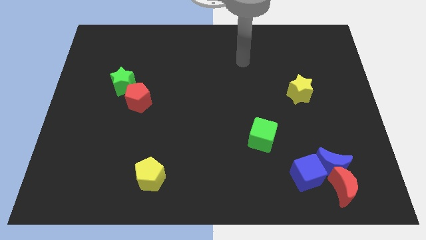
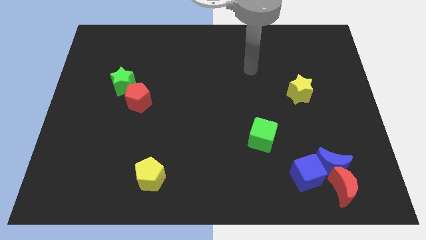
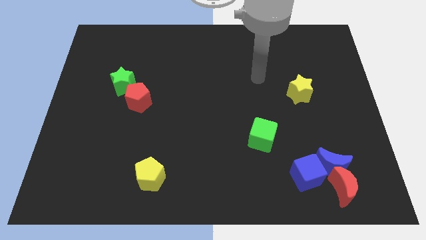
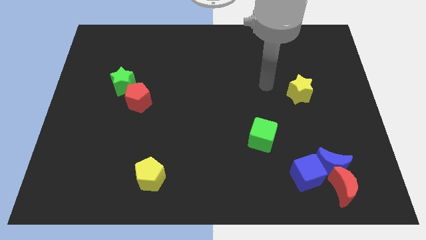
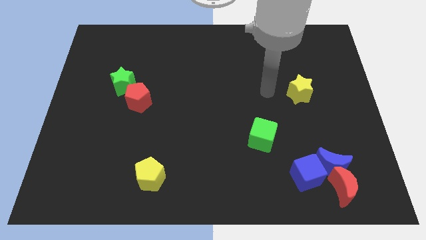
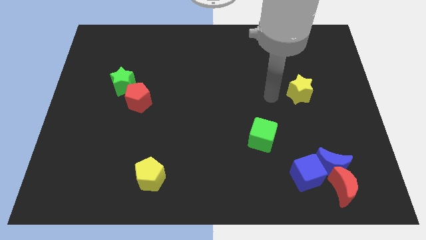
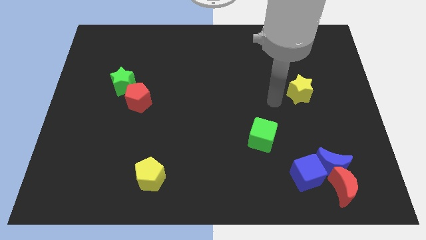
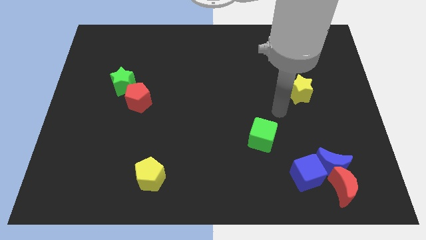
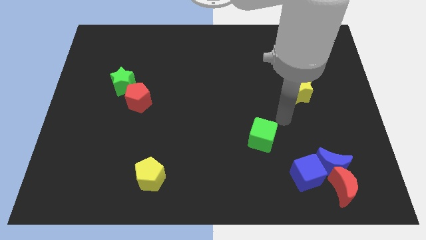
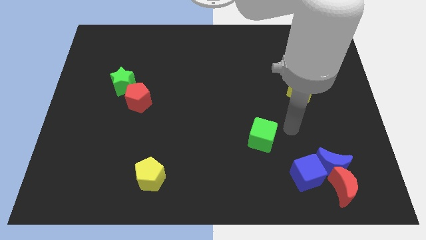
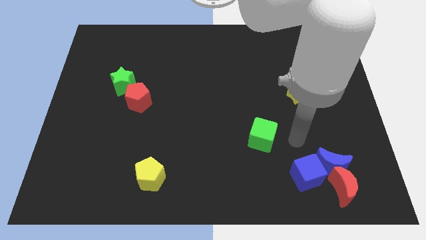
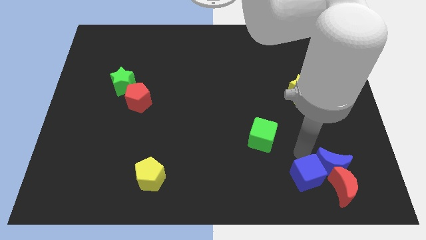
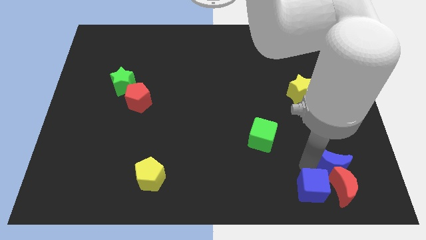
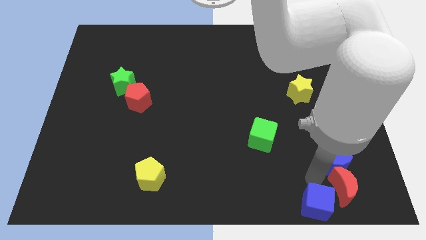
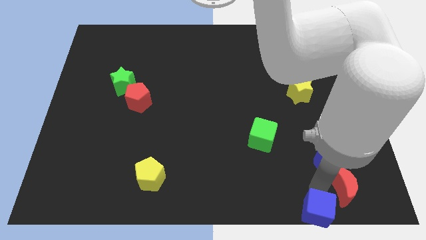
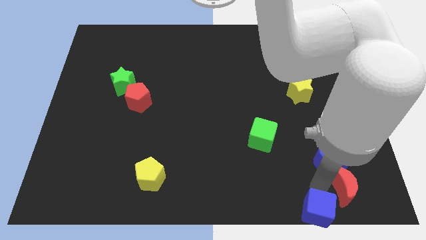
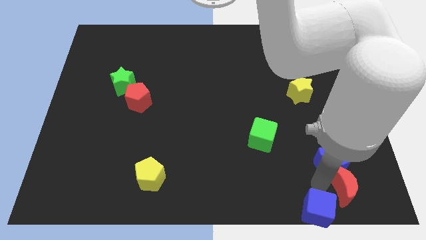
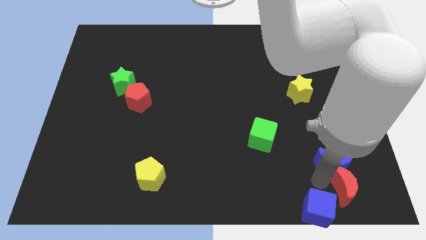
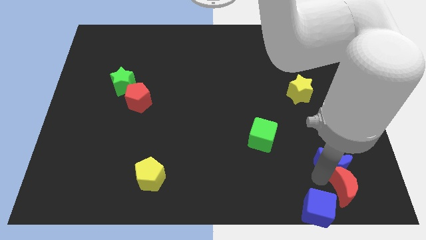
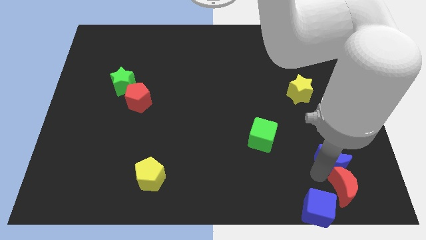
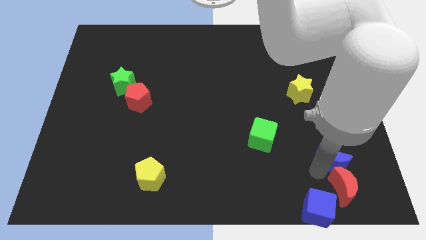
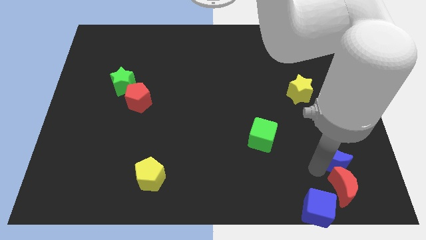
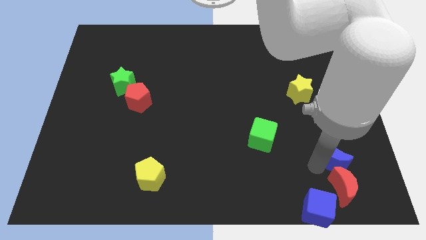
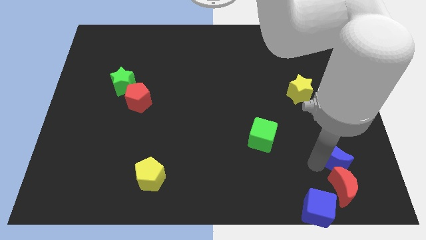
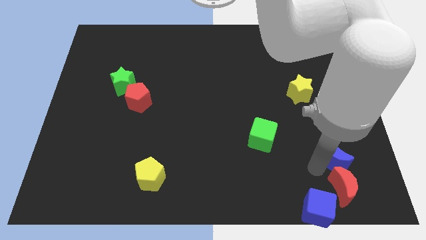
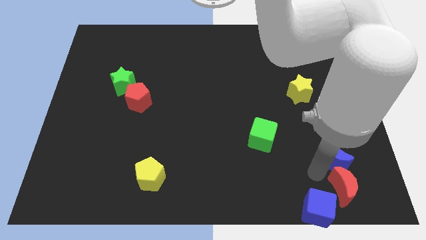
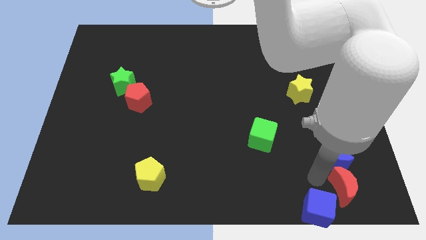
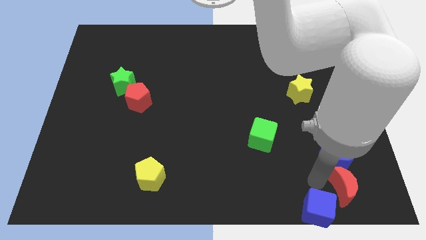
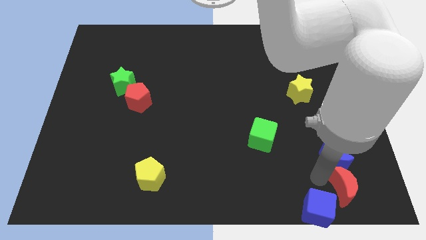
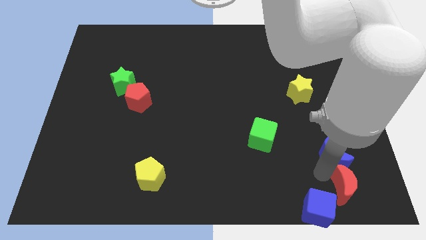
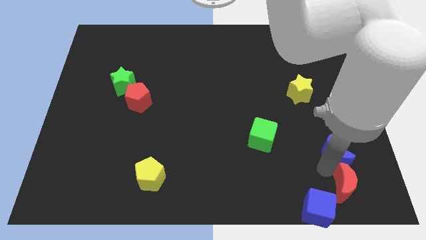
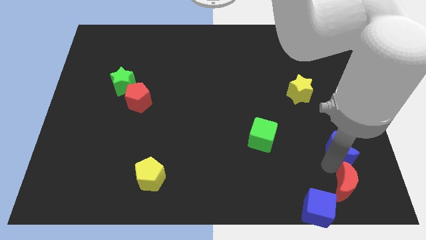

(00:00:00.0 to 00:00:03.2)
move the blue moon away from the red moon and blue cube

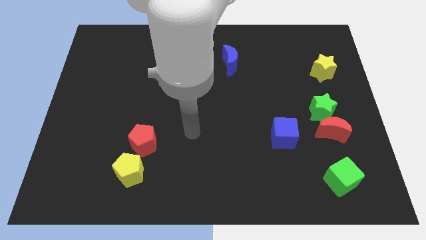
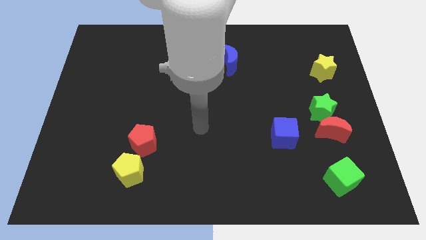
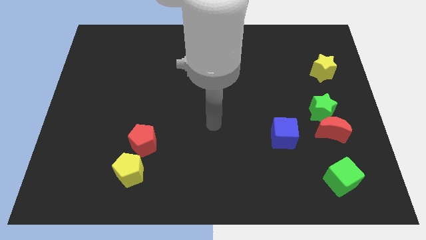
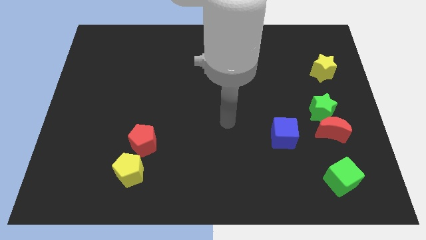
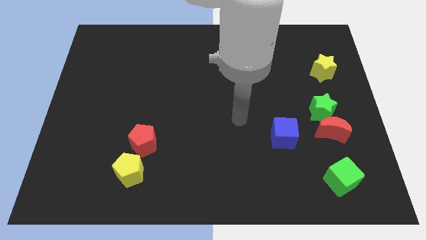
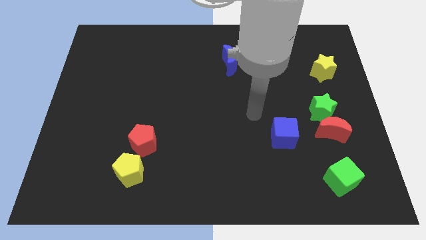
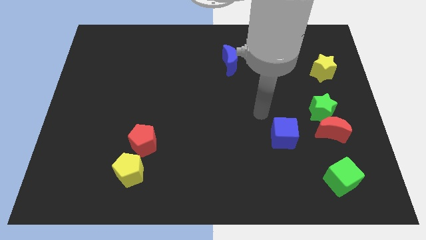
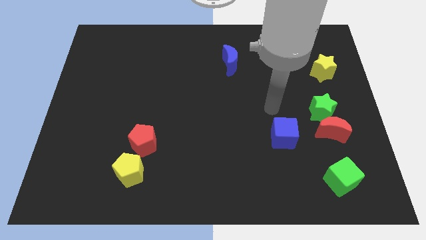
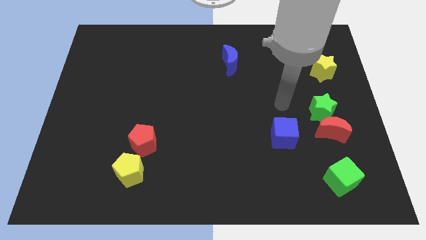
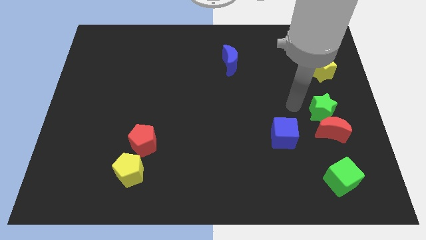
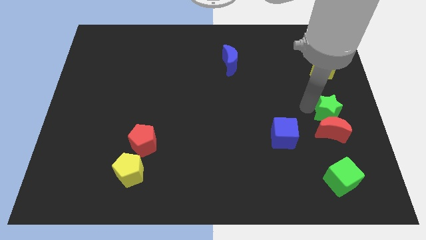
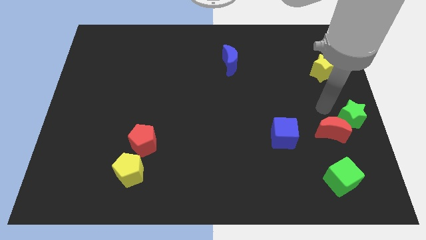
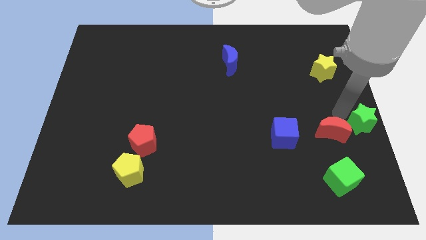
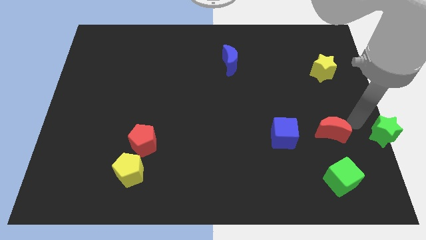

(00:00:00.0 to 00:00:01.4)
move the red moon away from the green star

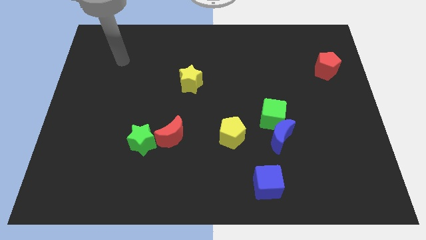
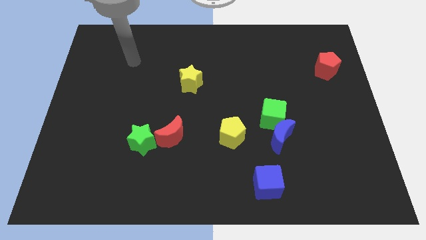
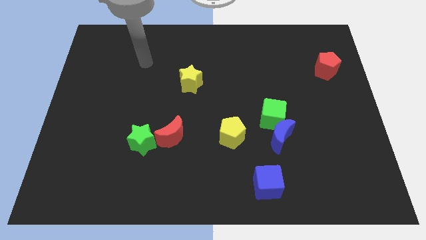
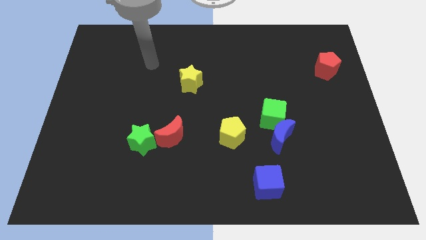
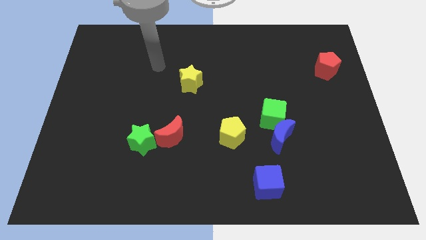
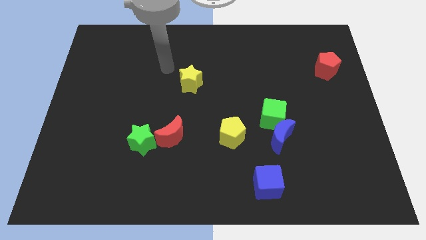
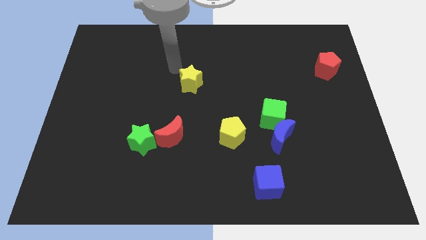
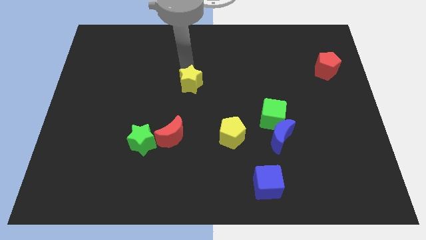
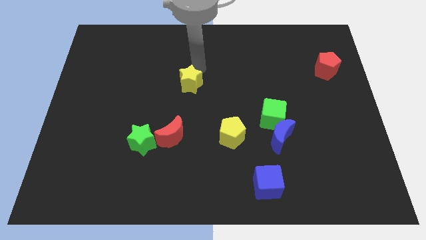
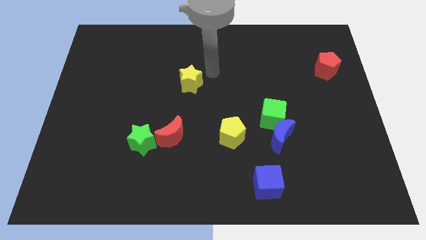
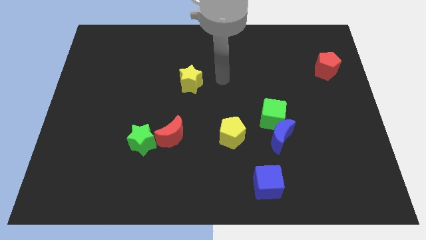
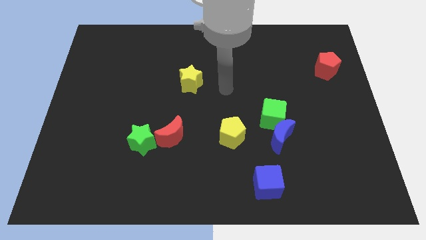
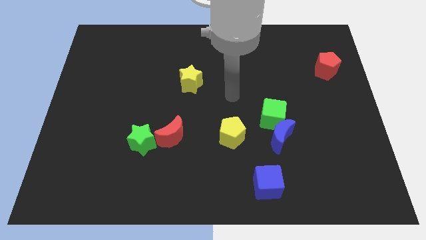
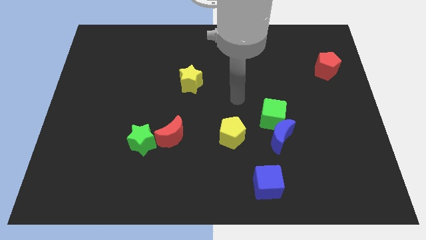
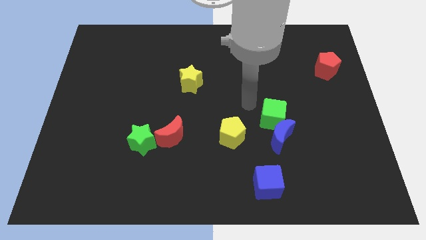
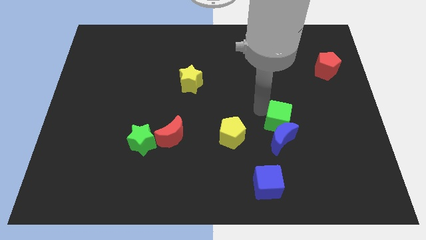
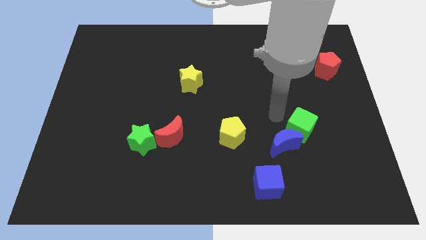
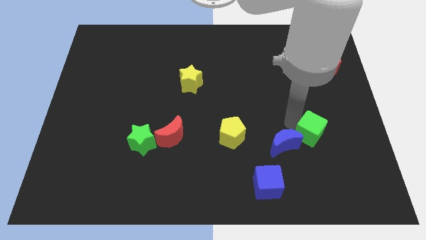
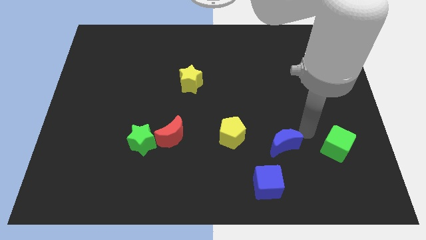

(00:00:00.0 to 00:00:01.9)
pull the blue moon apart from the green cube

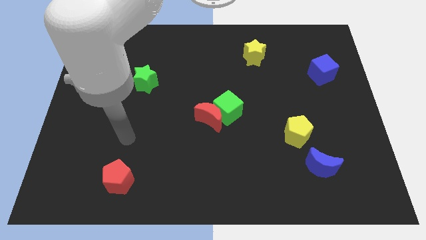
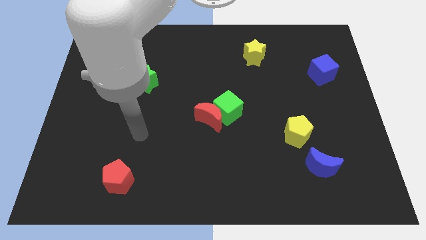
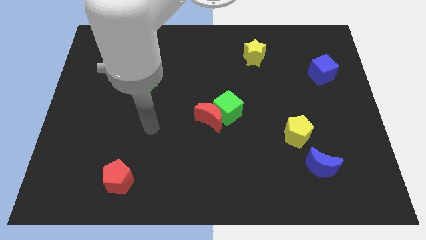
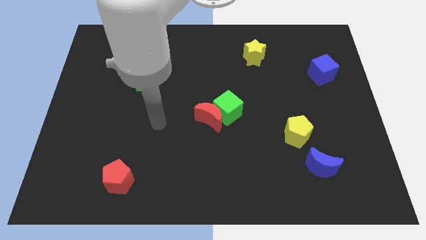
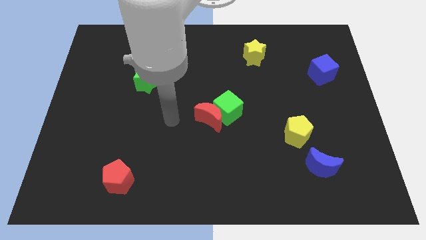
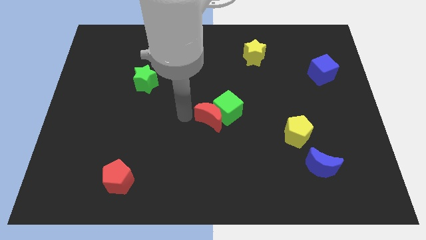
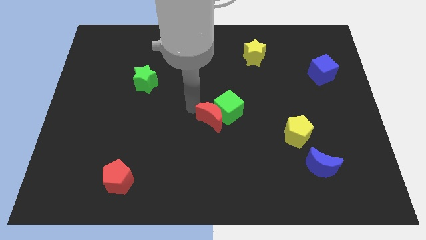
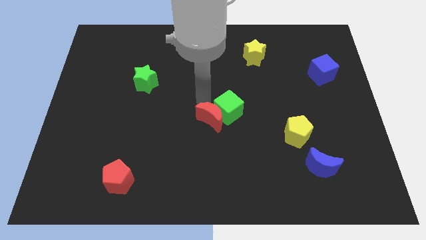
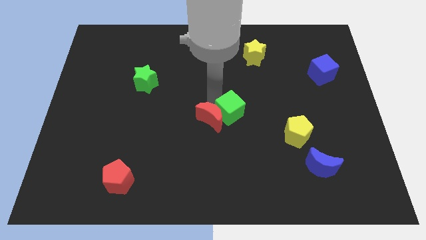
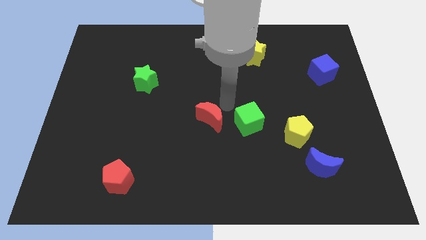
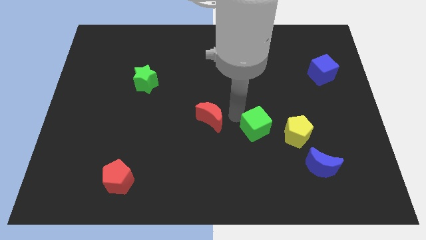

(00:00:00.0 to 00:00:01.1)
separate the red moon from the green cube

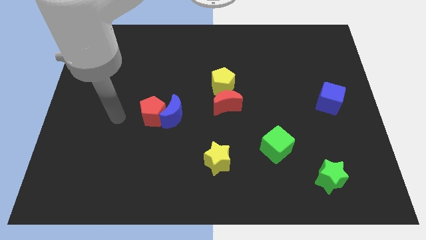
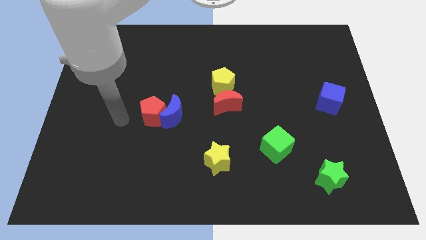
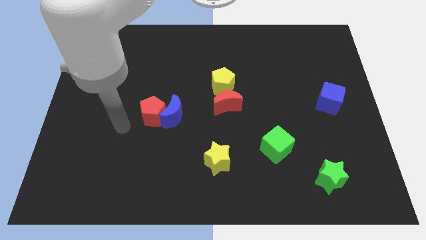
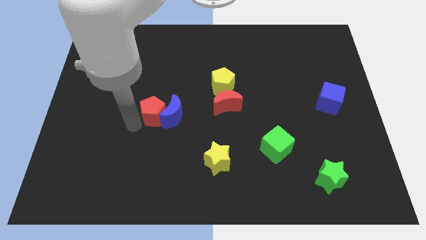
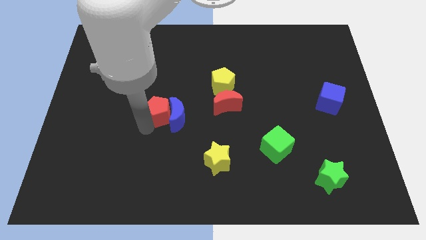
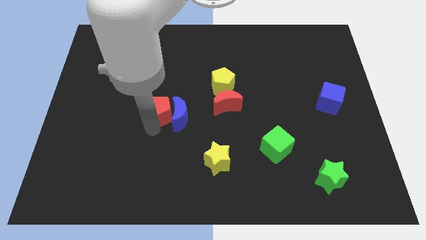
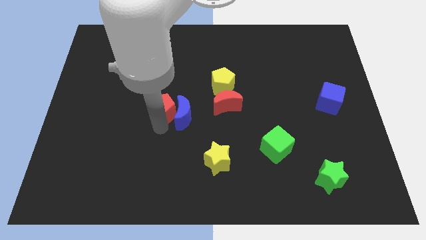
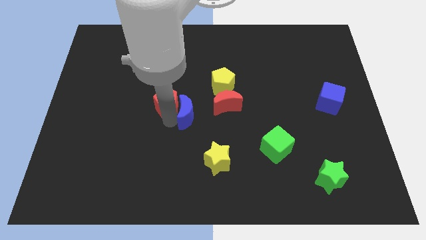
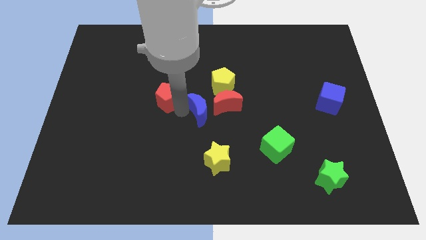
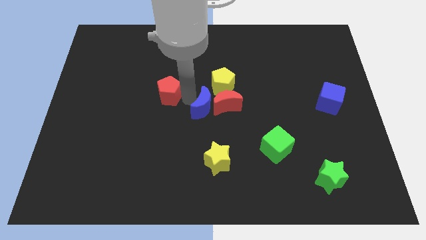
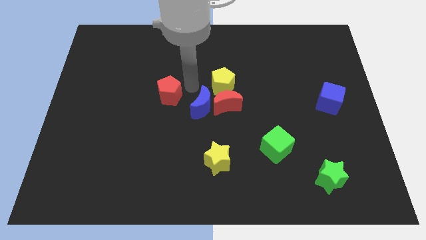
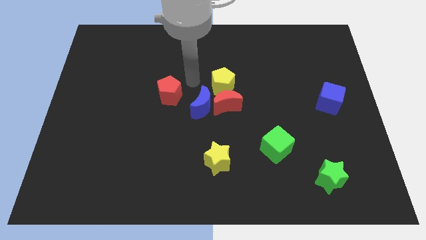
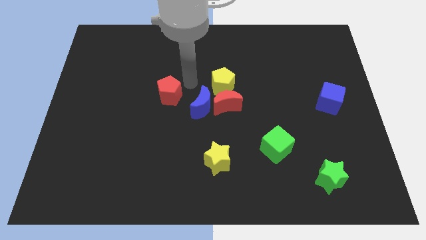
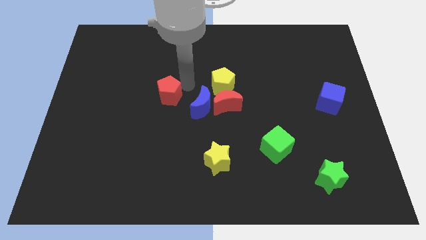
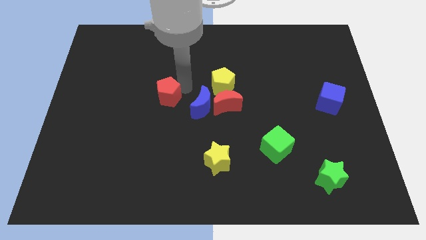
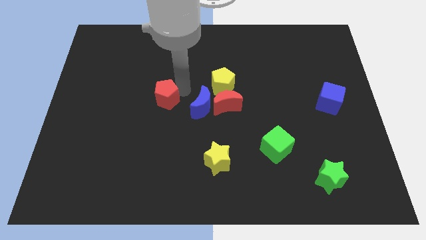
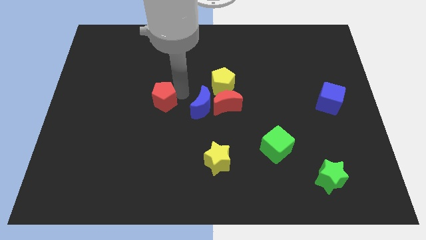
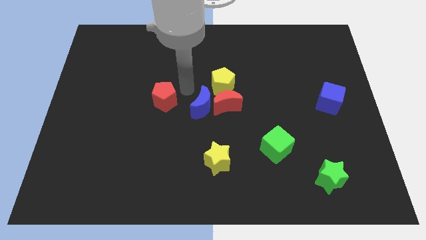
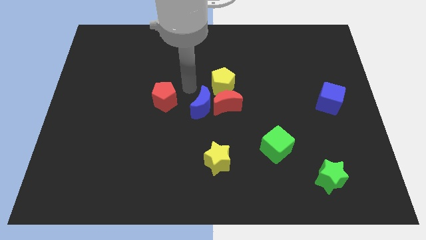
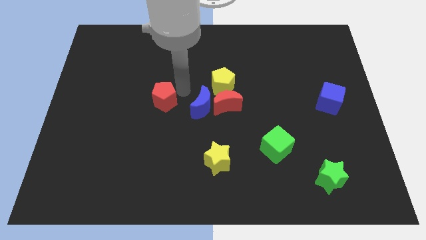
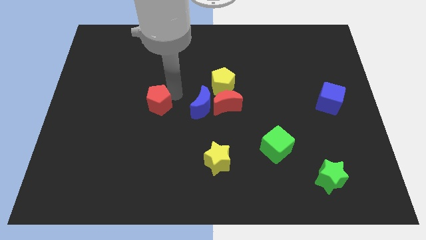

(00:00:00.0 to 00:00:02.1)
pull the red pentagon apart from the blue moon
